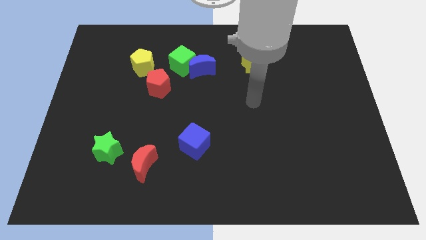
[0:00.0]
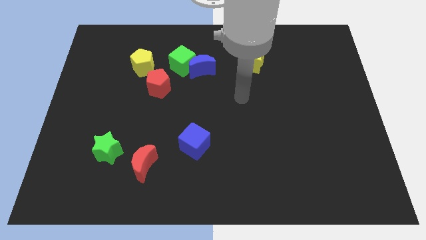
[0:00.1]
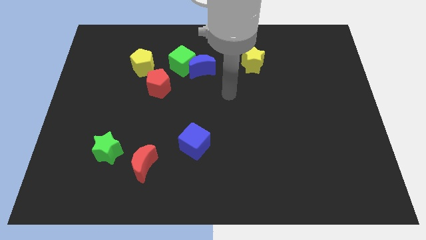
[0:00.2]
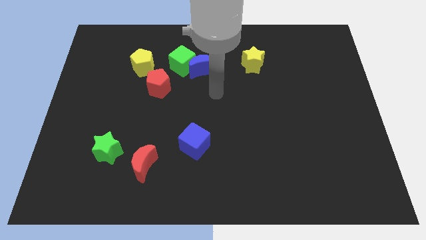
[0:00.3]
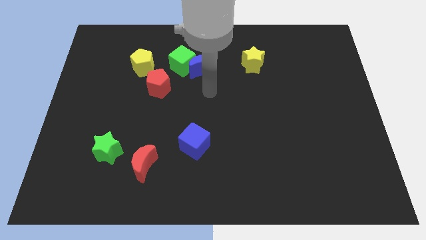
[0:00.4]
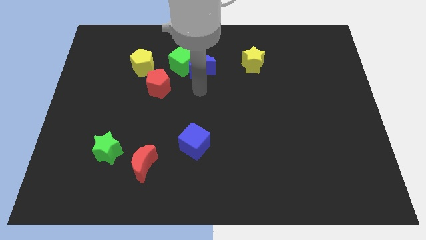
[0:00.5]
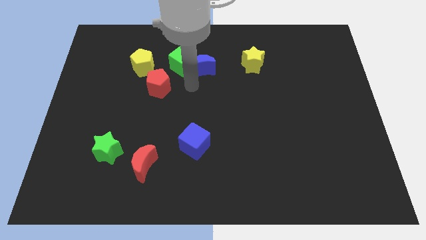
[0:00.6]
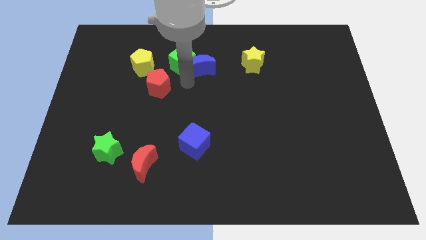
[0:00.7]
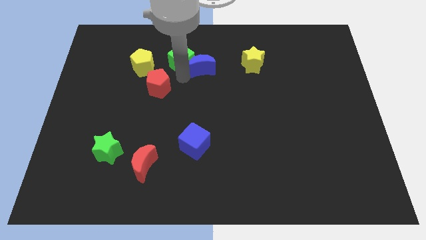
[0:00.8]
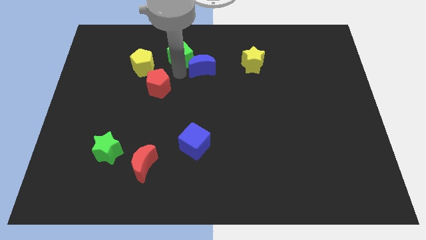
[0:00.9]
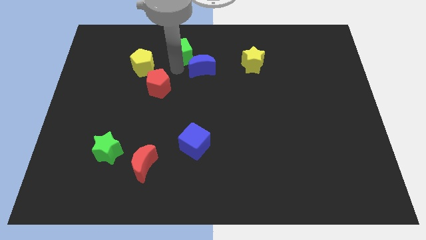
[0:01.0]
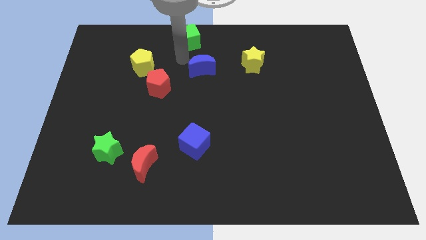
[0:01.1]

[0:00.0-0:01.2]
separate the blue moon from the green cube

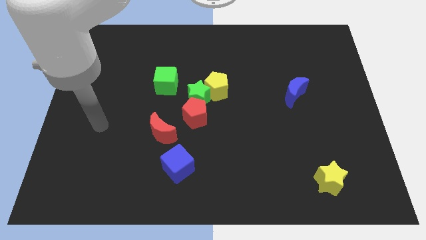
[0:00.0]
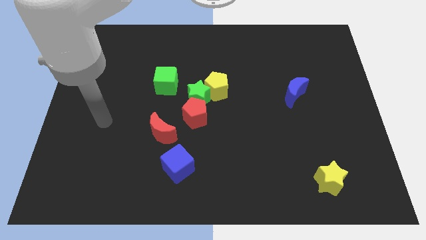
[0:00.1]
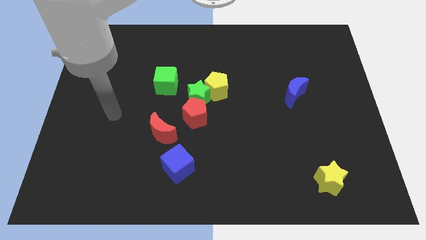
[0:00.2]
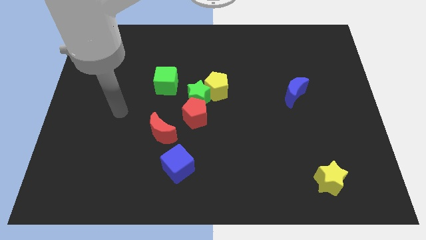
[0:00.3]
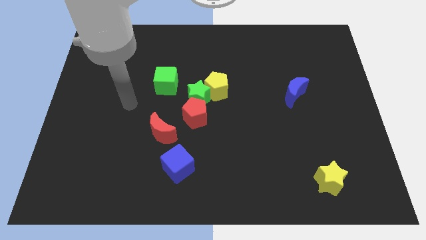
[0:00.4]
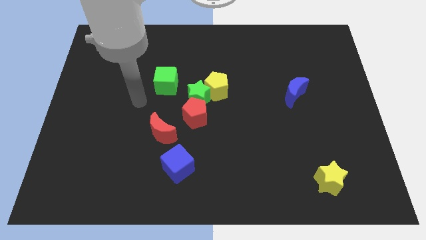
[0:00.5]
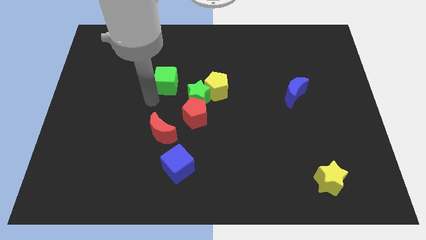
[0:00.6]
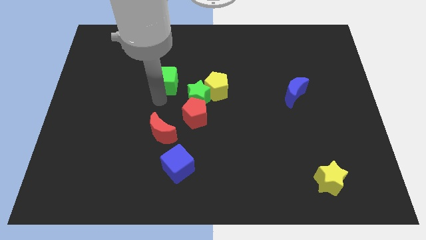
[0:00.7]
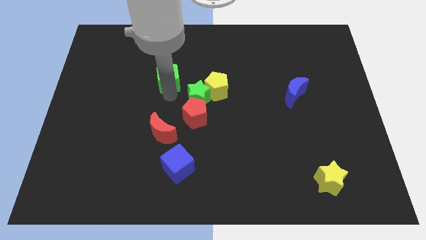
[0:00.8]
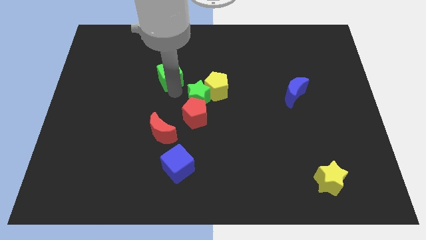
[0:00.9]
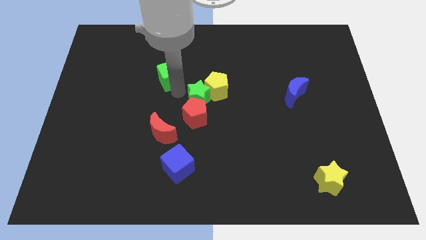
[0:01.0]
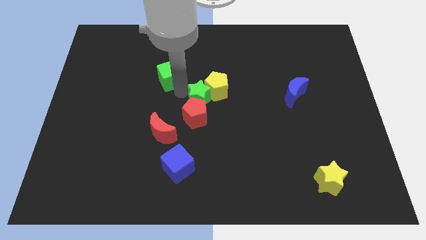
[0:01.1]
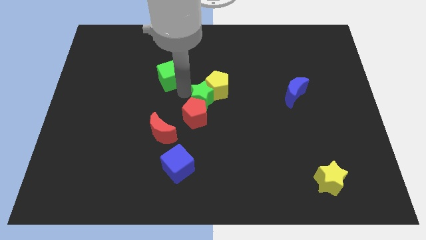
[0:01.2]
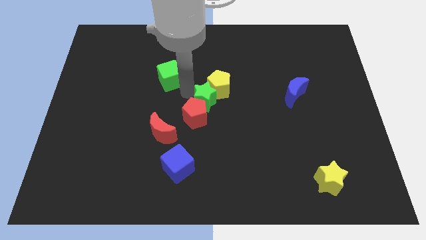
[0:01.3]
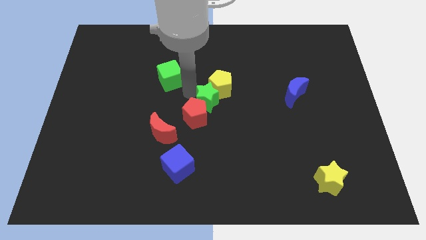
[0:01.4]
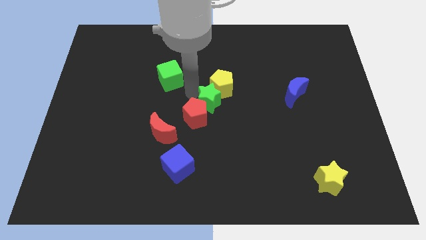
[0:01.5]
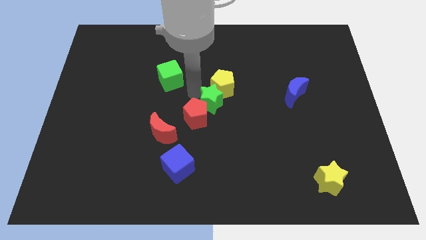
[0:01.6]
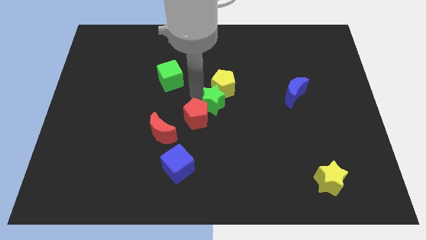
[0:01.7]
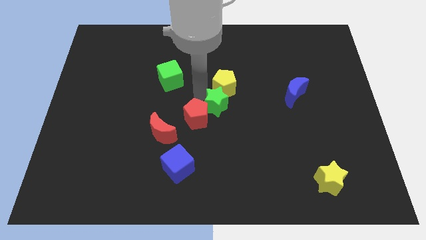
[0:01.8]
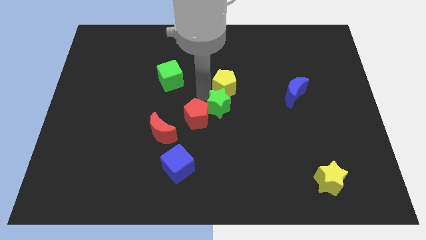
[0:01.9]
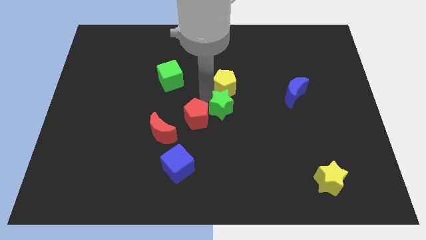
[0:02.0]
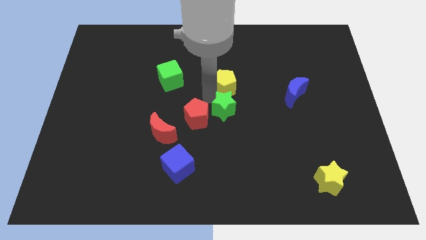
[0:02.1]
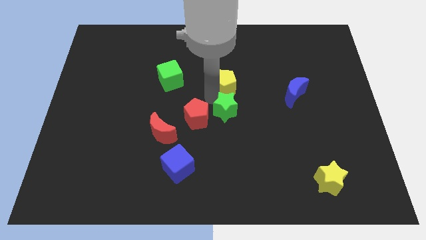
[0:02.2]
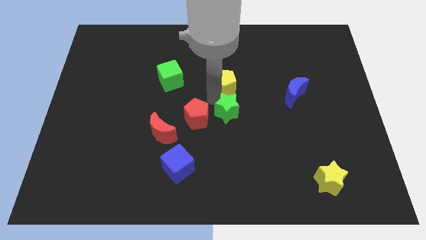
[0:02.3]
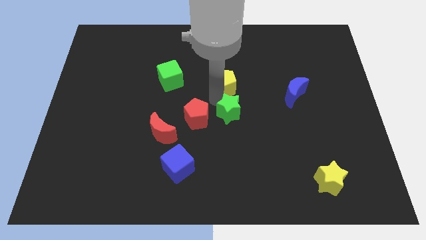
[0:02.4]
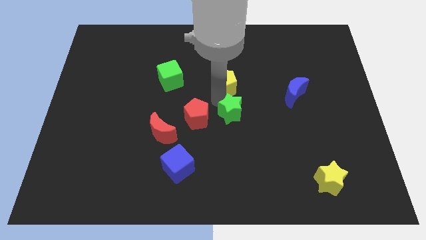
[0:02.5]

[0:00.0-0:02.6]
pull the green star apart from the group

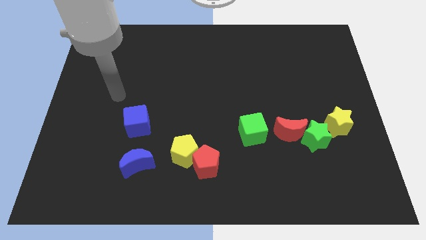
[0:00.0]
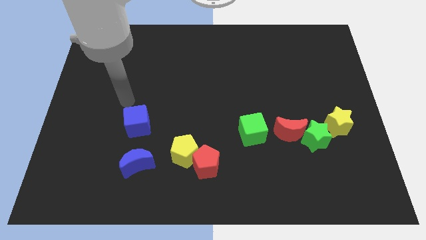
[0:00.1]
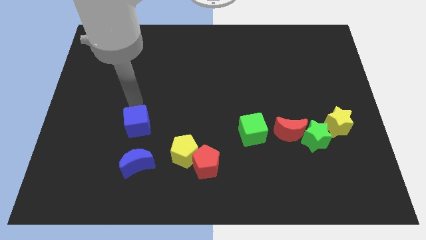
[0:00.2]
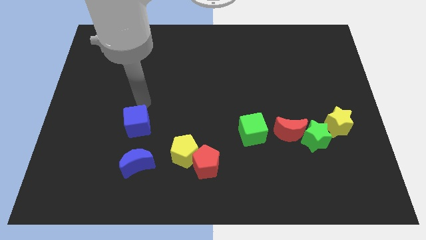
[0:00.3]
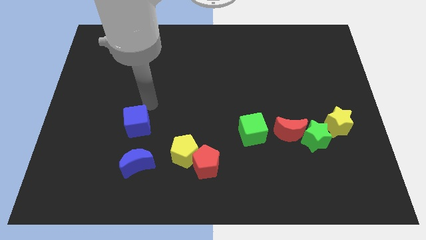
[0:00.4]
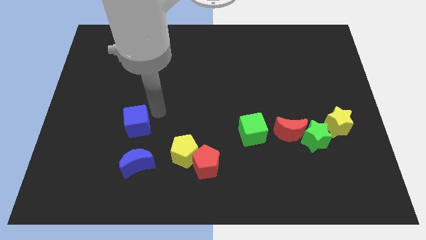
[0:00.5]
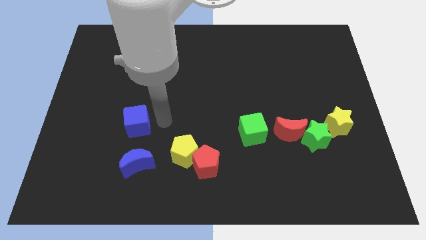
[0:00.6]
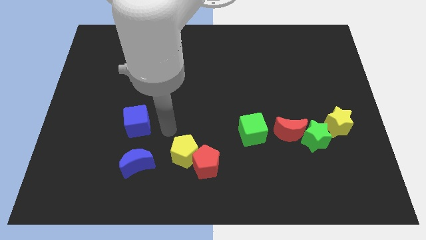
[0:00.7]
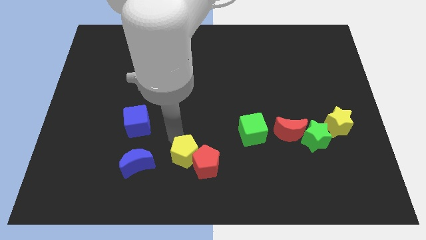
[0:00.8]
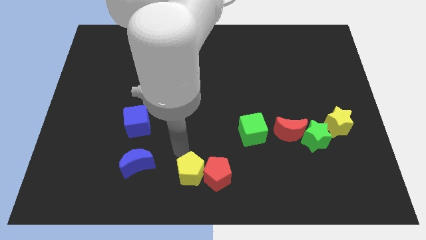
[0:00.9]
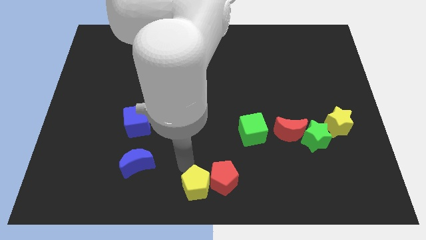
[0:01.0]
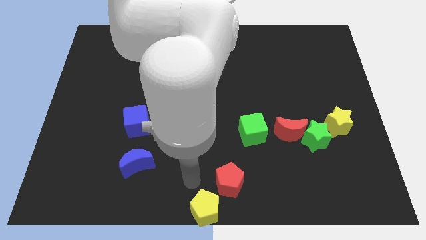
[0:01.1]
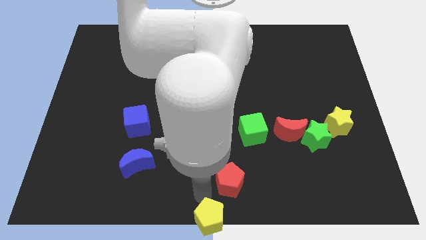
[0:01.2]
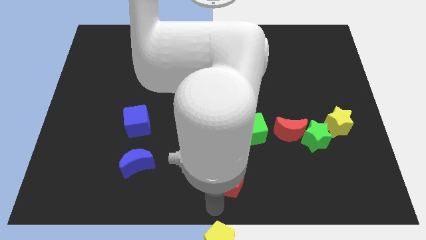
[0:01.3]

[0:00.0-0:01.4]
pull the red pentagon apart from the yellow pentagon

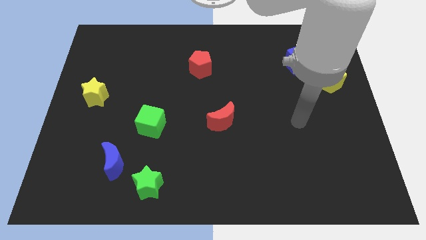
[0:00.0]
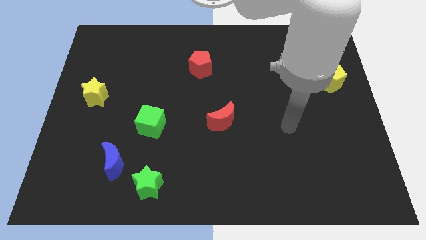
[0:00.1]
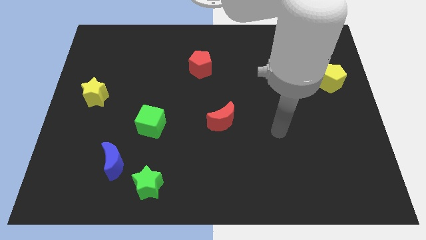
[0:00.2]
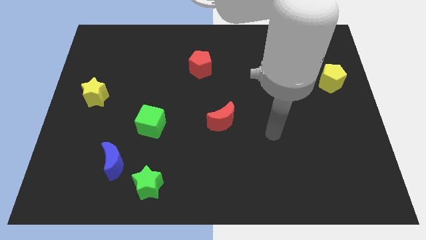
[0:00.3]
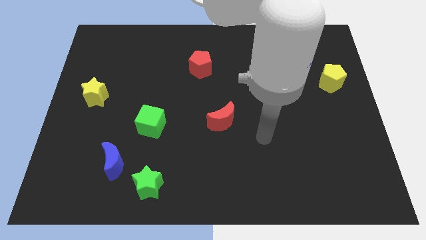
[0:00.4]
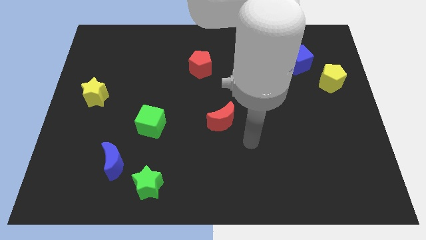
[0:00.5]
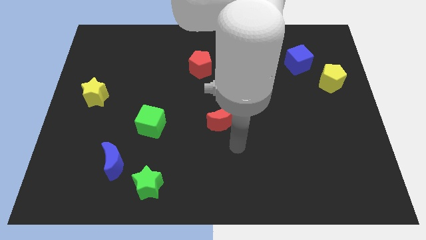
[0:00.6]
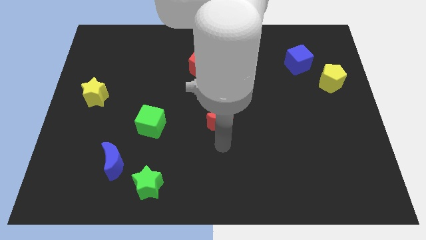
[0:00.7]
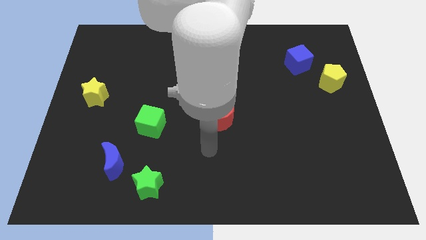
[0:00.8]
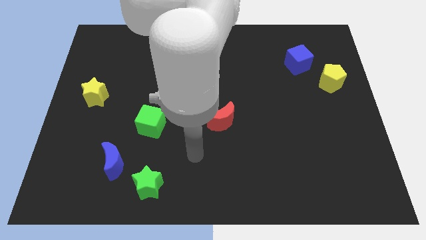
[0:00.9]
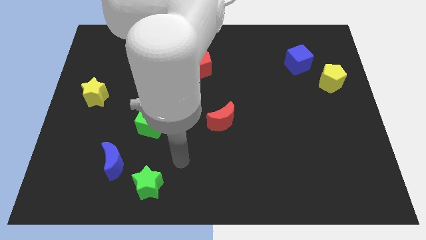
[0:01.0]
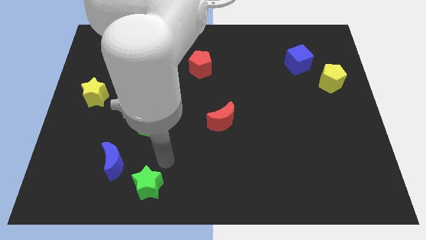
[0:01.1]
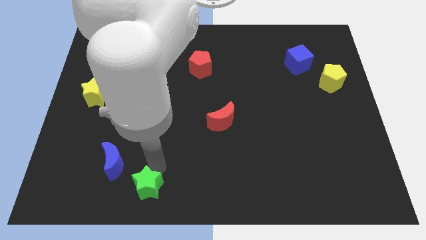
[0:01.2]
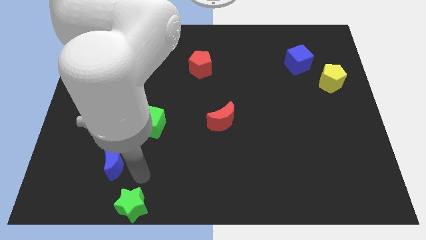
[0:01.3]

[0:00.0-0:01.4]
separate the blue moon from the green star

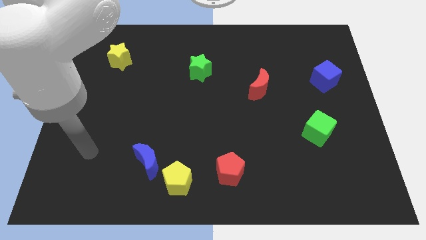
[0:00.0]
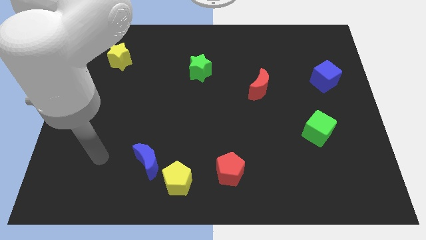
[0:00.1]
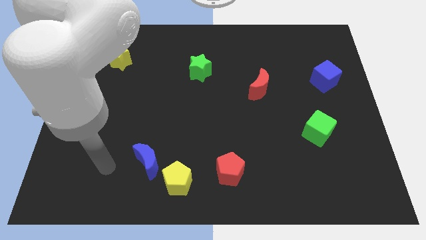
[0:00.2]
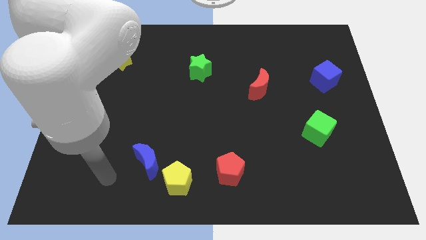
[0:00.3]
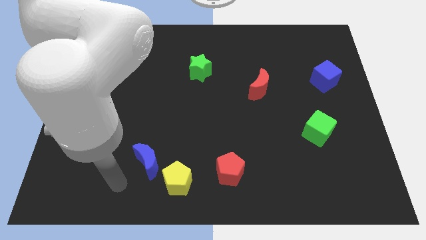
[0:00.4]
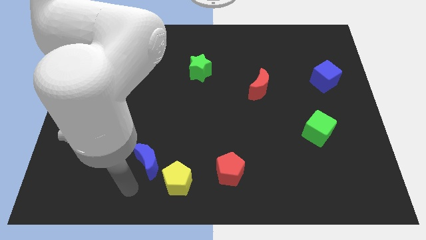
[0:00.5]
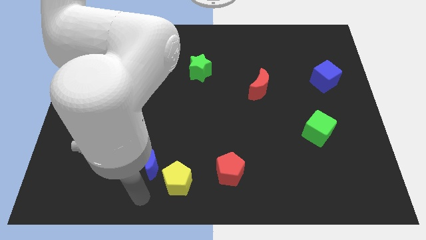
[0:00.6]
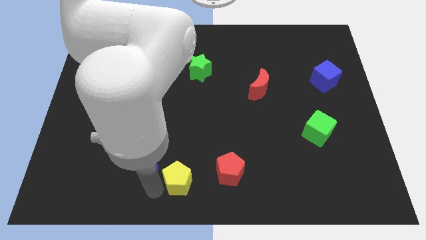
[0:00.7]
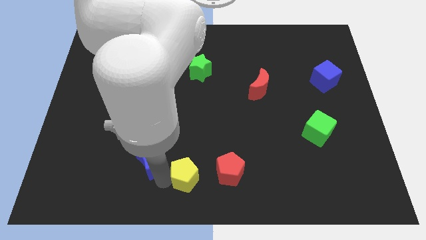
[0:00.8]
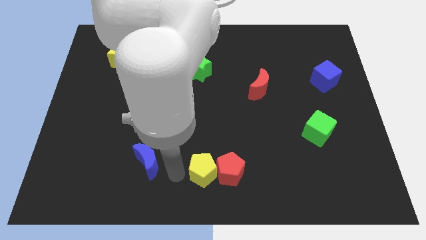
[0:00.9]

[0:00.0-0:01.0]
separate the blue moon from the yellow pentagon

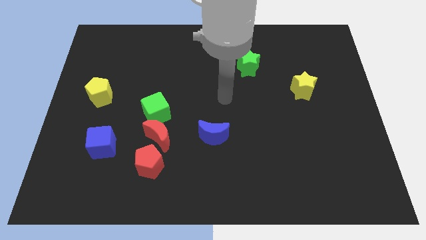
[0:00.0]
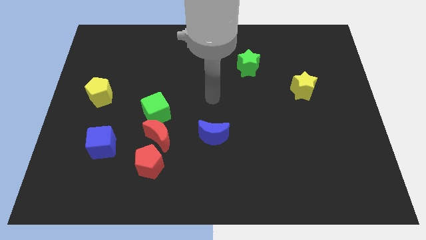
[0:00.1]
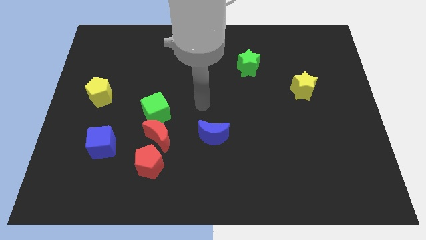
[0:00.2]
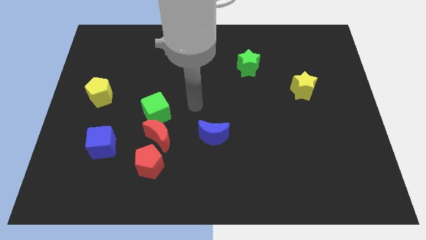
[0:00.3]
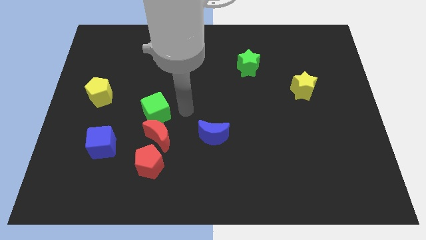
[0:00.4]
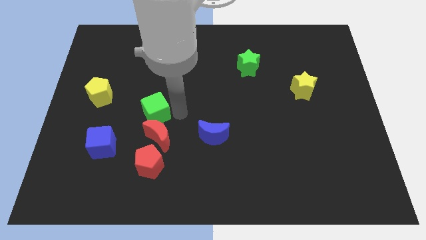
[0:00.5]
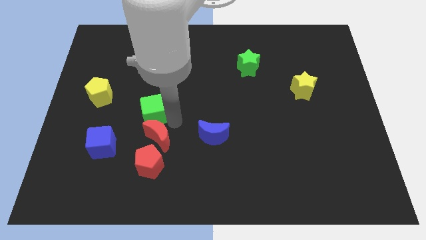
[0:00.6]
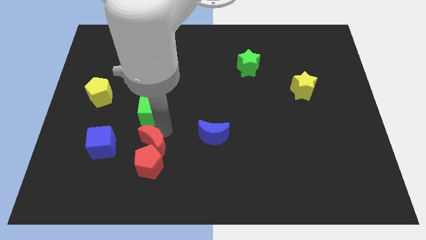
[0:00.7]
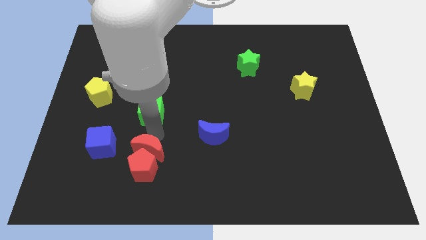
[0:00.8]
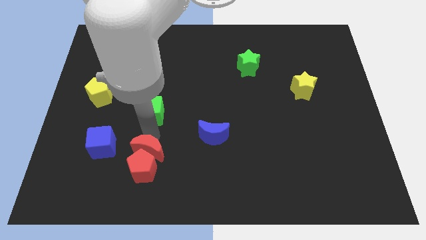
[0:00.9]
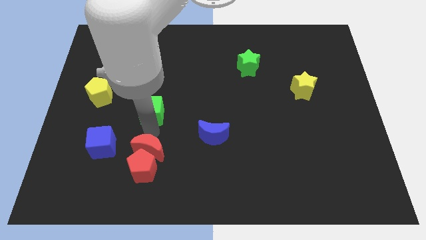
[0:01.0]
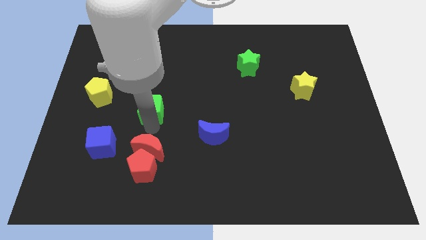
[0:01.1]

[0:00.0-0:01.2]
move the green cube away from the red moon

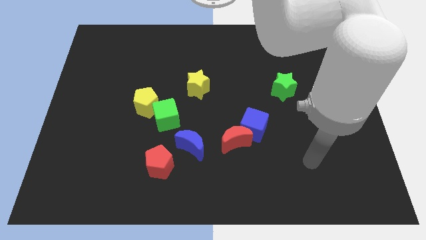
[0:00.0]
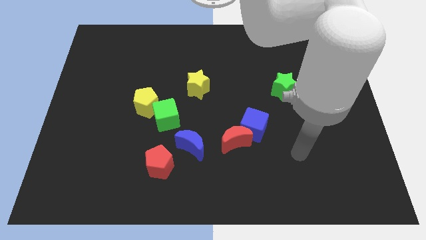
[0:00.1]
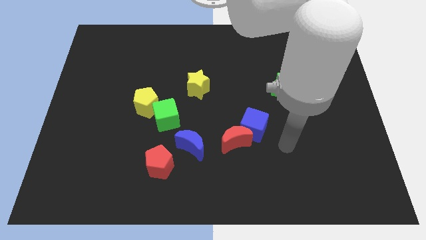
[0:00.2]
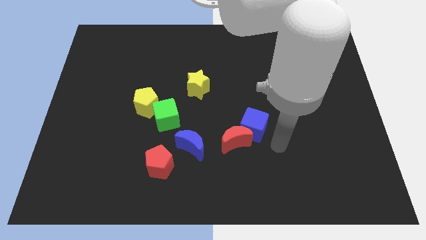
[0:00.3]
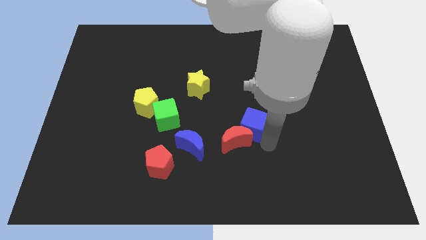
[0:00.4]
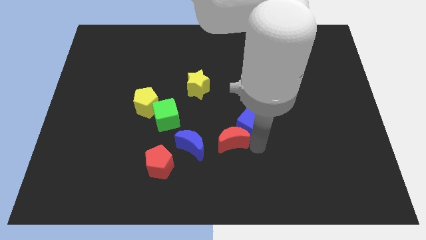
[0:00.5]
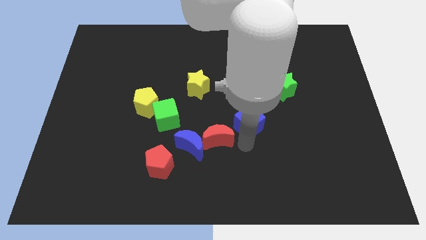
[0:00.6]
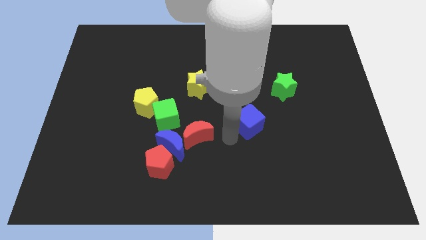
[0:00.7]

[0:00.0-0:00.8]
pull the blue cube apart from the red moon
